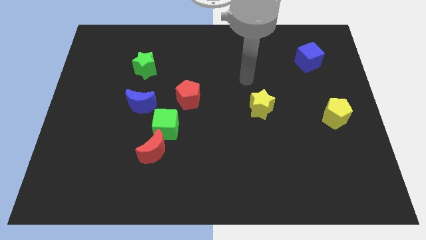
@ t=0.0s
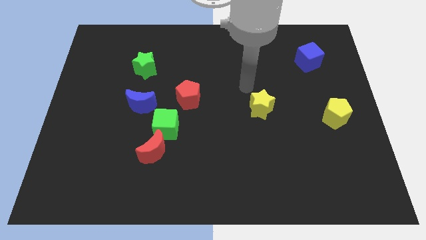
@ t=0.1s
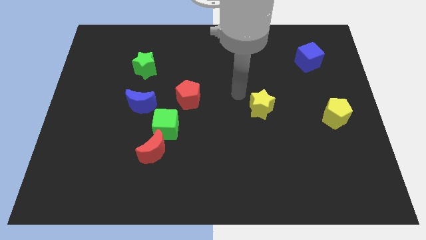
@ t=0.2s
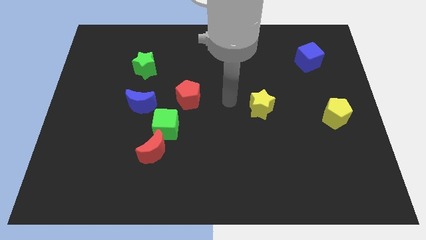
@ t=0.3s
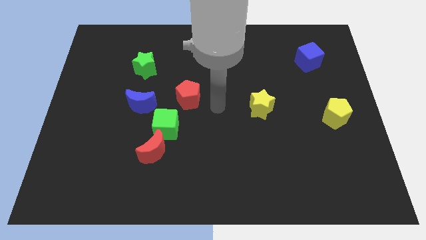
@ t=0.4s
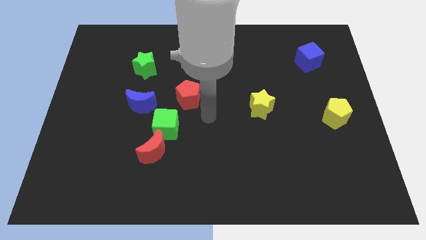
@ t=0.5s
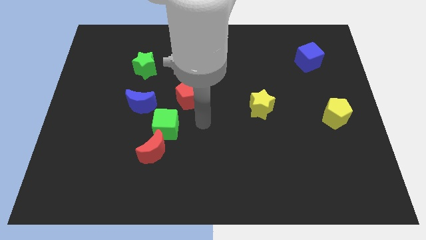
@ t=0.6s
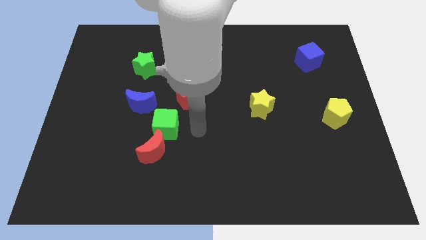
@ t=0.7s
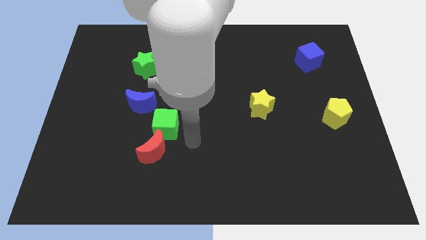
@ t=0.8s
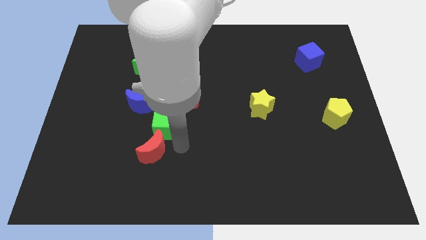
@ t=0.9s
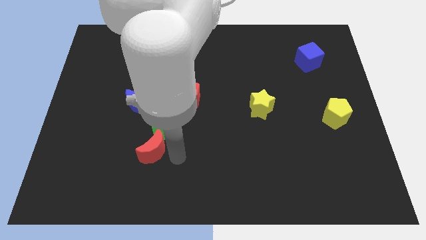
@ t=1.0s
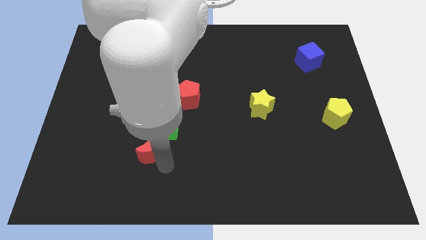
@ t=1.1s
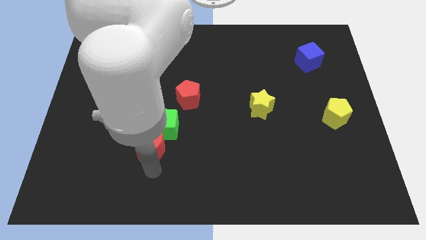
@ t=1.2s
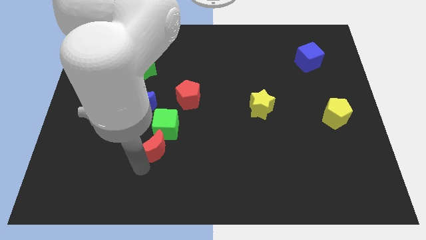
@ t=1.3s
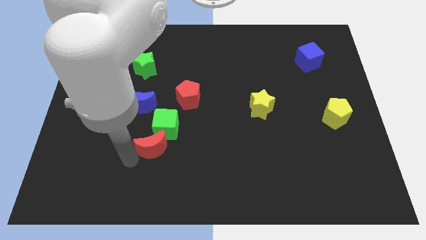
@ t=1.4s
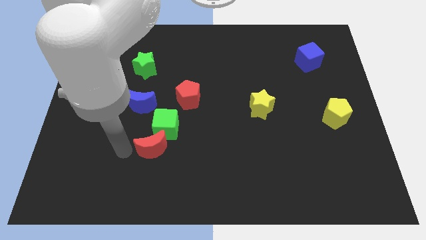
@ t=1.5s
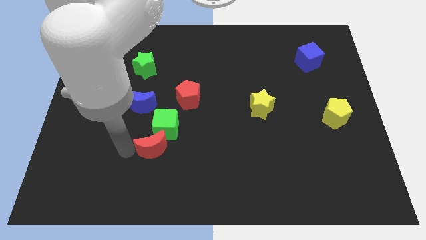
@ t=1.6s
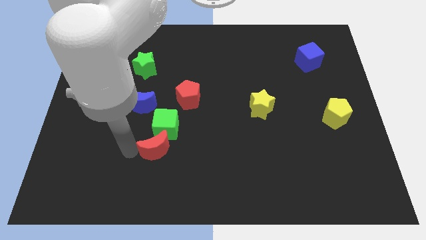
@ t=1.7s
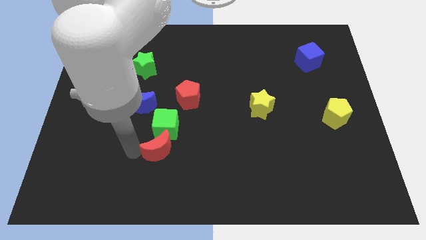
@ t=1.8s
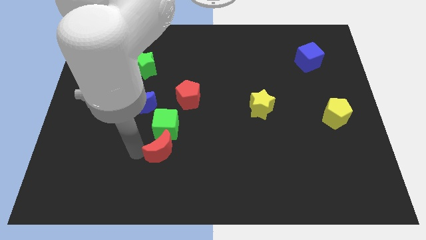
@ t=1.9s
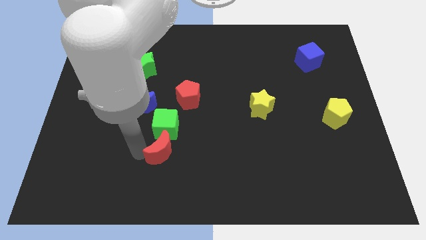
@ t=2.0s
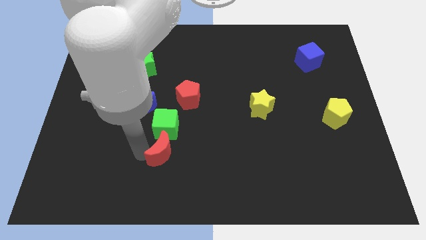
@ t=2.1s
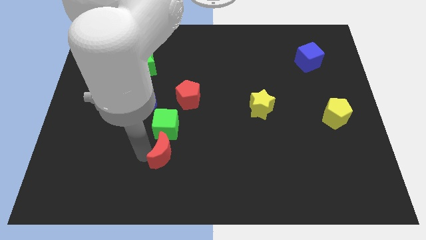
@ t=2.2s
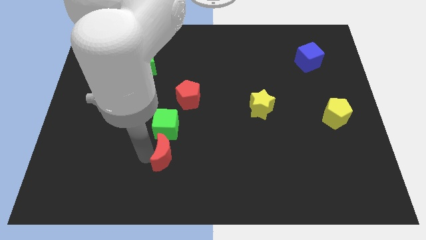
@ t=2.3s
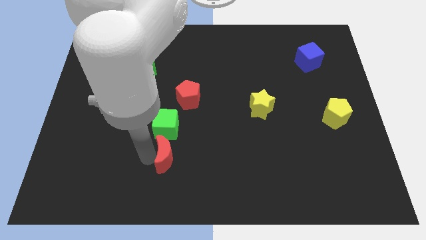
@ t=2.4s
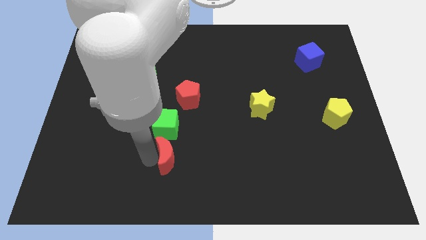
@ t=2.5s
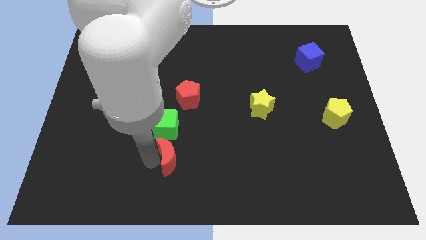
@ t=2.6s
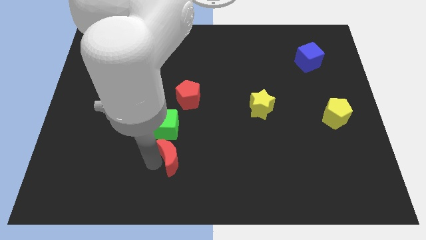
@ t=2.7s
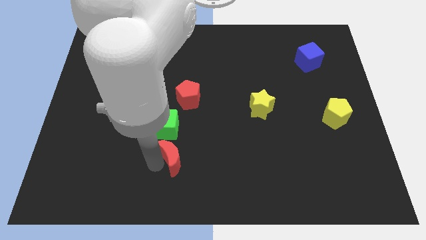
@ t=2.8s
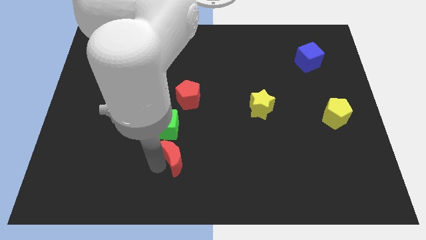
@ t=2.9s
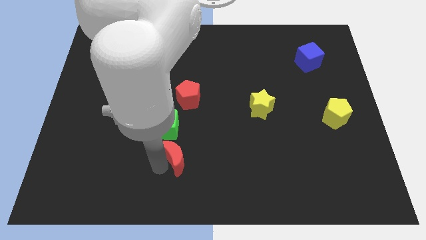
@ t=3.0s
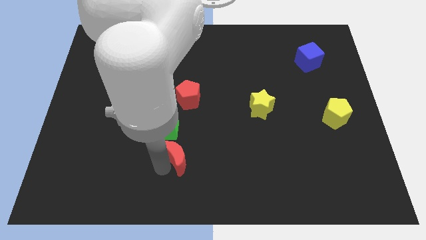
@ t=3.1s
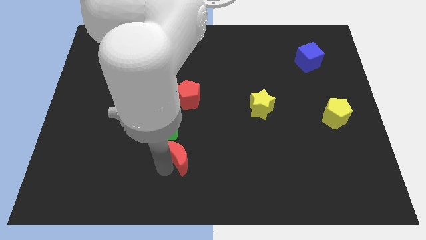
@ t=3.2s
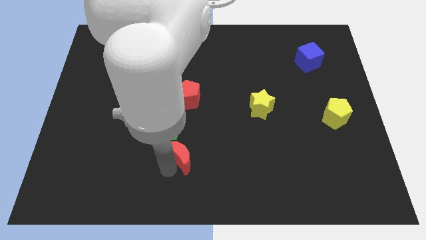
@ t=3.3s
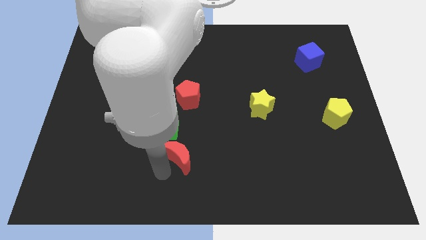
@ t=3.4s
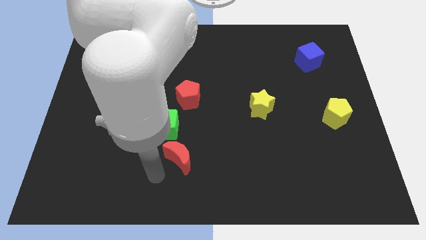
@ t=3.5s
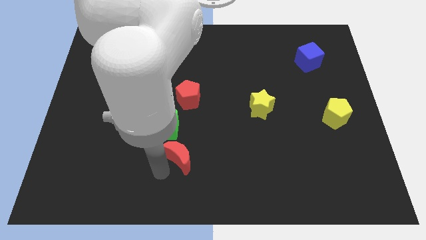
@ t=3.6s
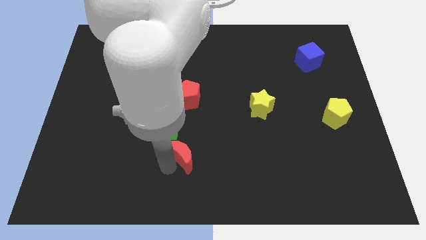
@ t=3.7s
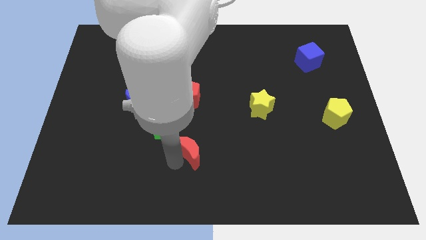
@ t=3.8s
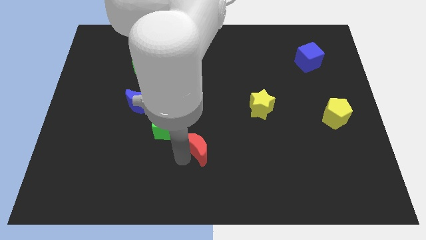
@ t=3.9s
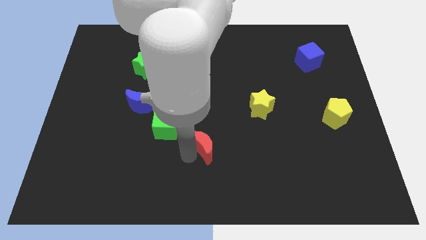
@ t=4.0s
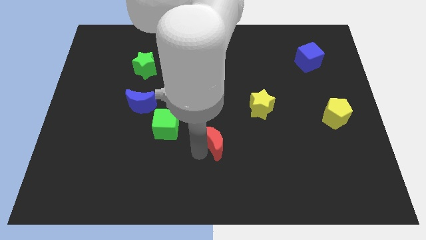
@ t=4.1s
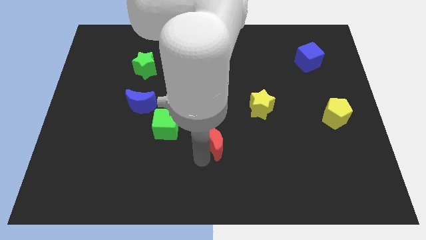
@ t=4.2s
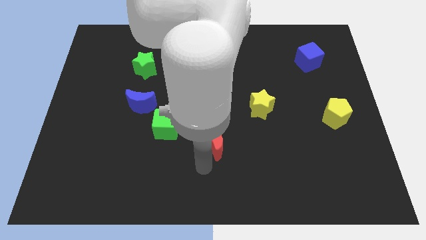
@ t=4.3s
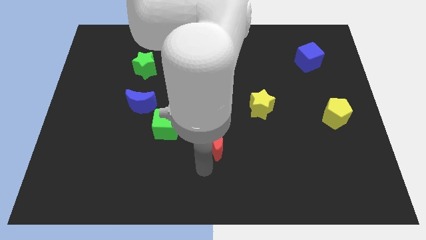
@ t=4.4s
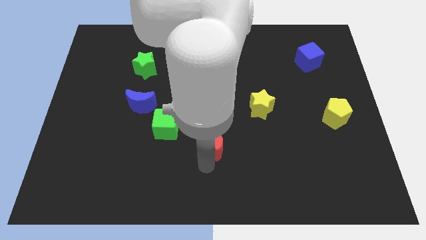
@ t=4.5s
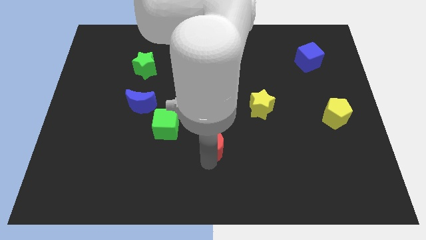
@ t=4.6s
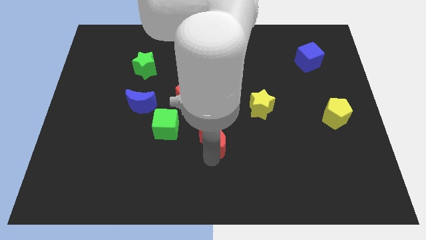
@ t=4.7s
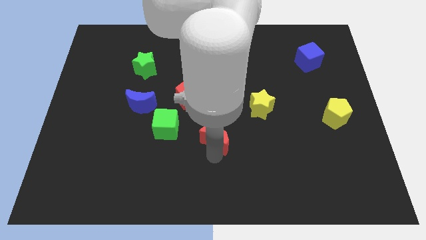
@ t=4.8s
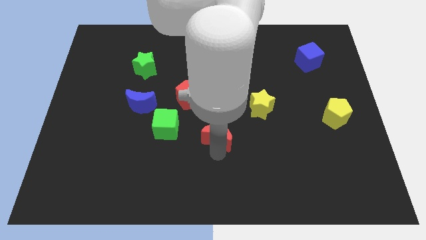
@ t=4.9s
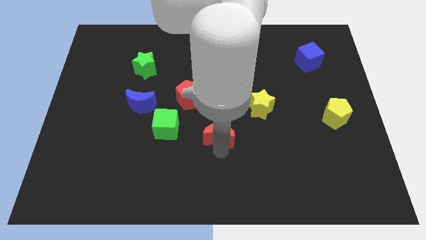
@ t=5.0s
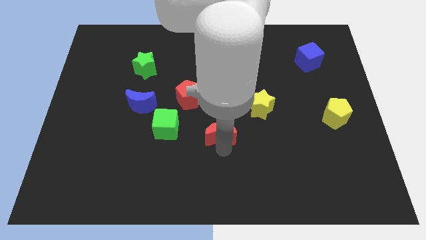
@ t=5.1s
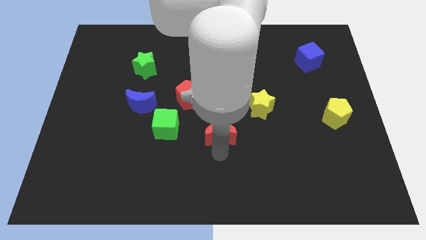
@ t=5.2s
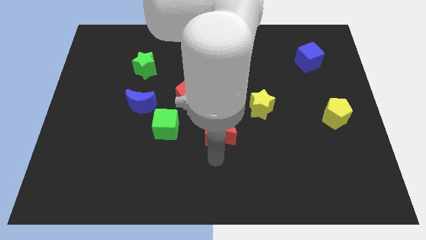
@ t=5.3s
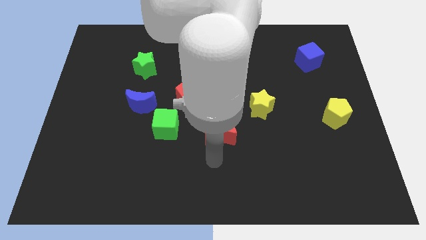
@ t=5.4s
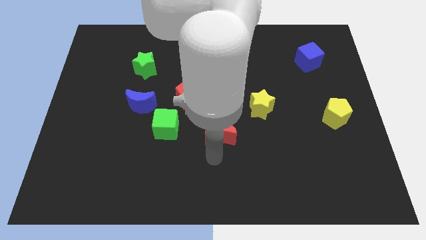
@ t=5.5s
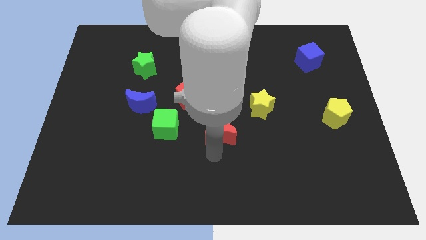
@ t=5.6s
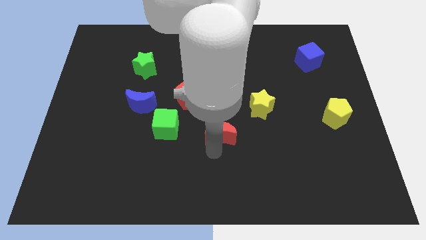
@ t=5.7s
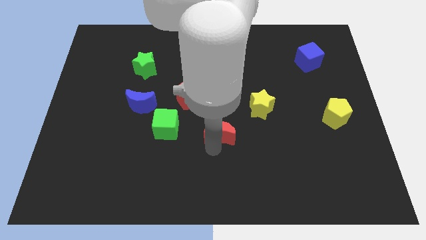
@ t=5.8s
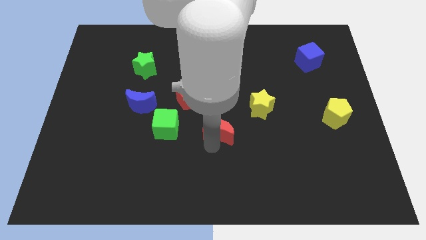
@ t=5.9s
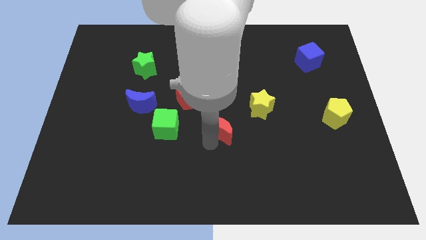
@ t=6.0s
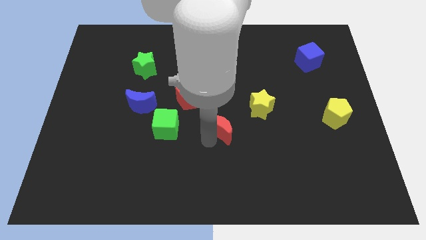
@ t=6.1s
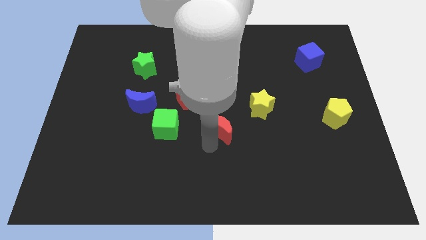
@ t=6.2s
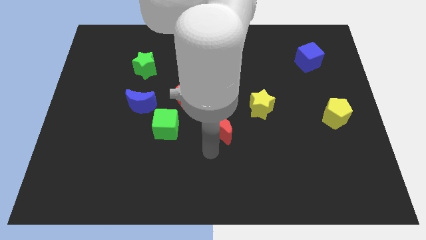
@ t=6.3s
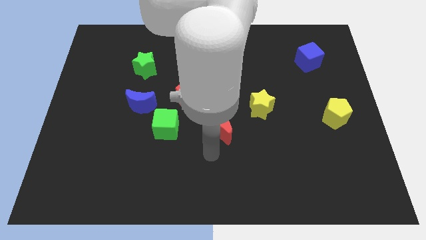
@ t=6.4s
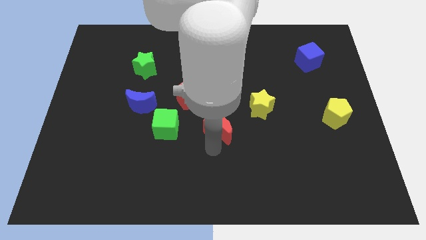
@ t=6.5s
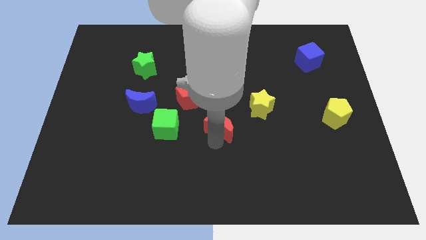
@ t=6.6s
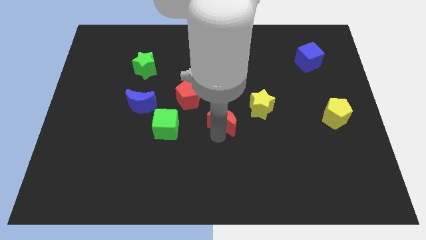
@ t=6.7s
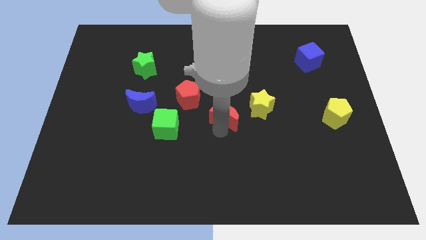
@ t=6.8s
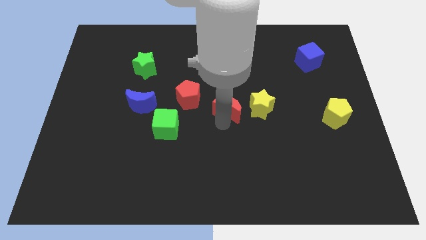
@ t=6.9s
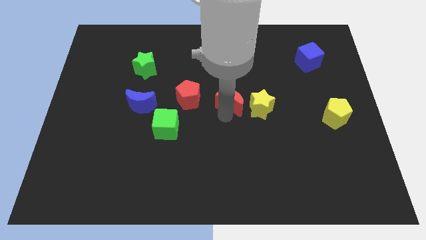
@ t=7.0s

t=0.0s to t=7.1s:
slide the red moon diagonally up and right

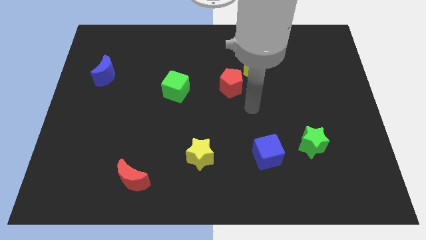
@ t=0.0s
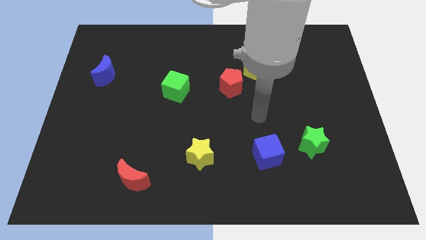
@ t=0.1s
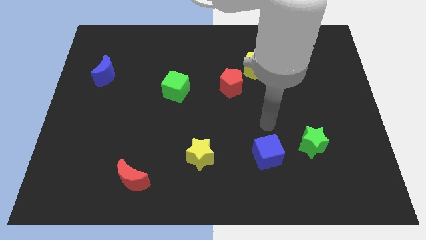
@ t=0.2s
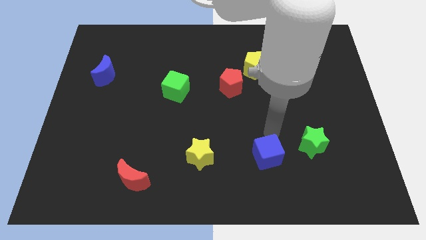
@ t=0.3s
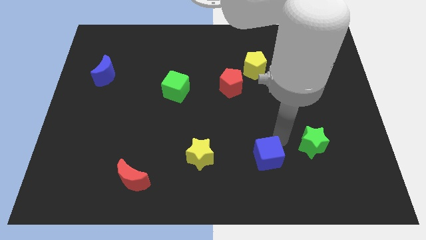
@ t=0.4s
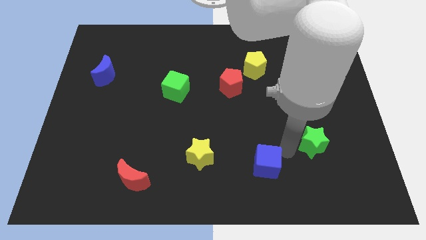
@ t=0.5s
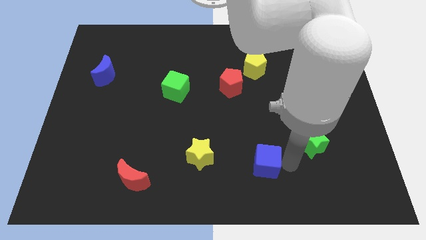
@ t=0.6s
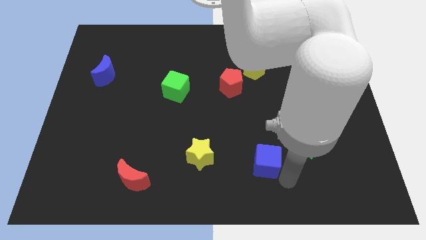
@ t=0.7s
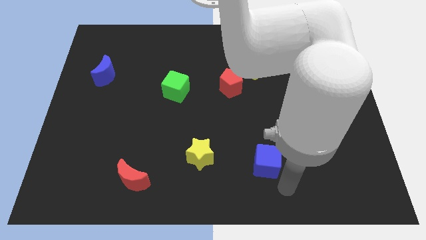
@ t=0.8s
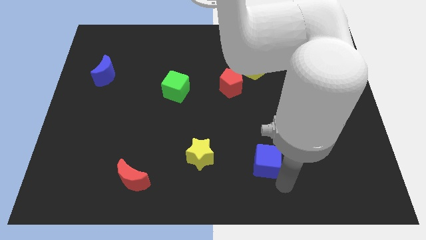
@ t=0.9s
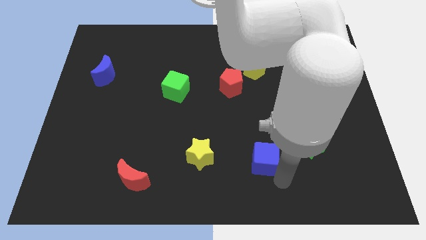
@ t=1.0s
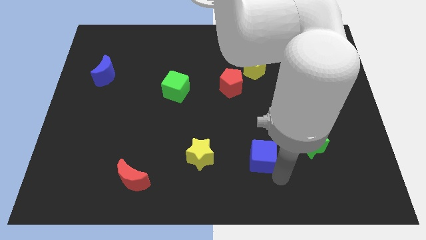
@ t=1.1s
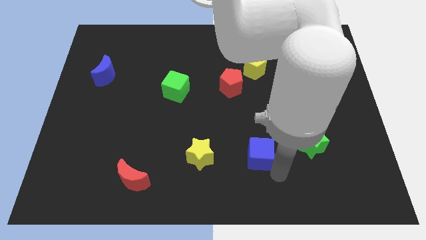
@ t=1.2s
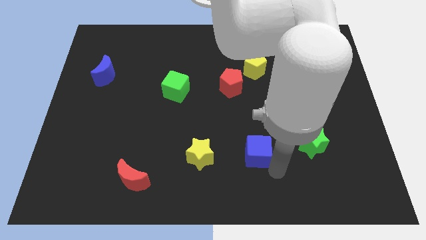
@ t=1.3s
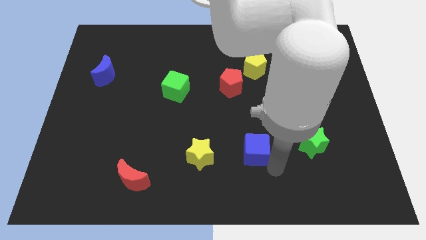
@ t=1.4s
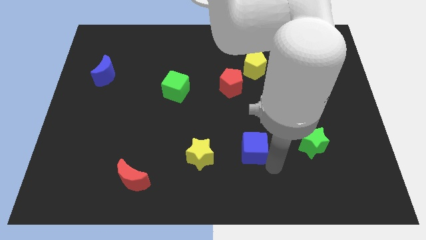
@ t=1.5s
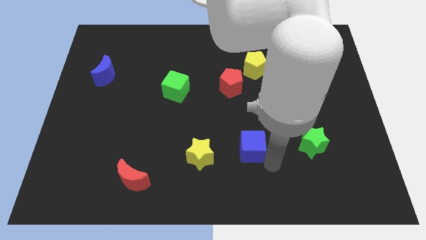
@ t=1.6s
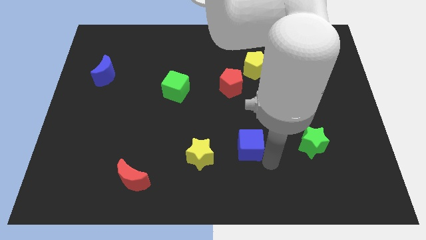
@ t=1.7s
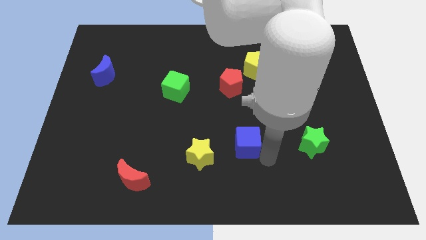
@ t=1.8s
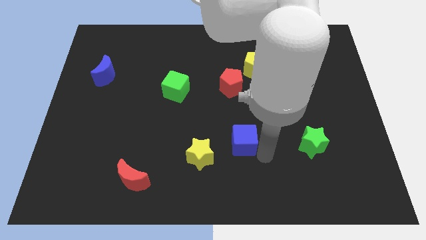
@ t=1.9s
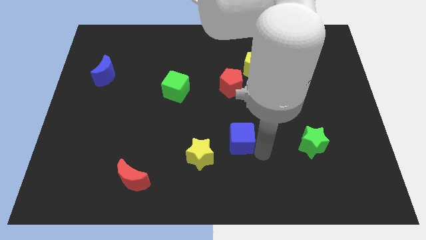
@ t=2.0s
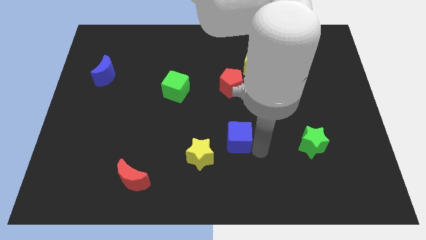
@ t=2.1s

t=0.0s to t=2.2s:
slightly move the blue cube up and then left
